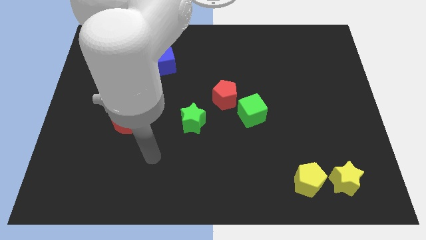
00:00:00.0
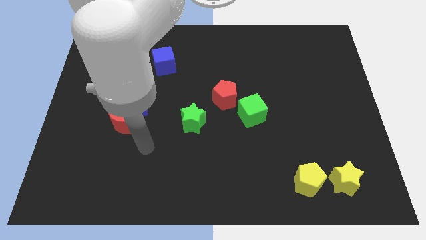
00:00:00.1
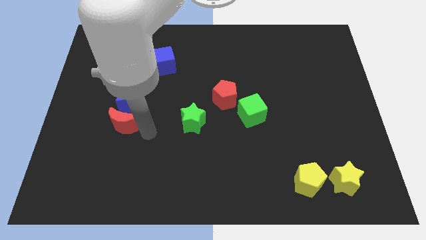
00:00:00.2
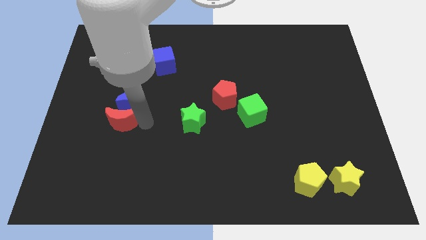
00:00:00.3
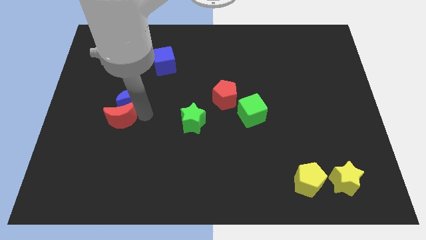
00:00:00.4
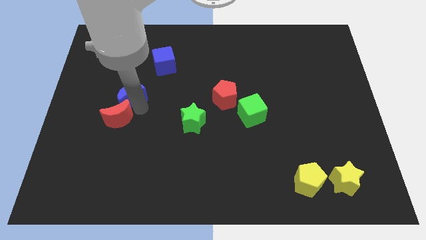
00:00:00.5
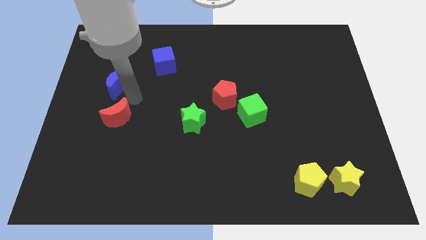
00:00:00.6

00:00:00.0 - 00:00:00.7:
separate the red moon from the blue moon

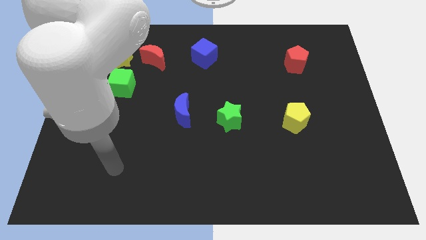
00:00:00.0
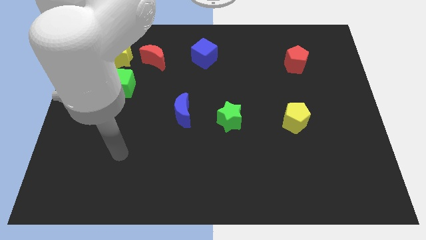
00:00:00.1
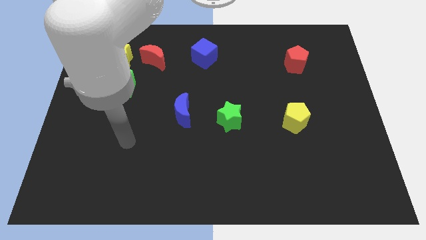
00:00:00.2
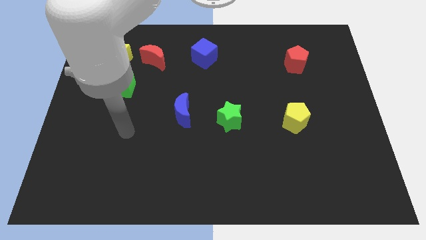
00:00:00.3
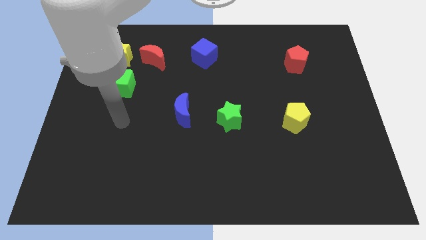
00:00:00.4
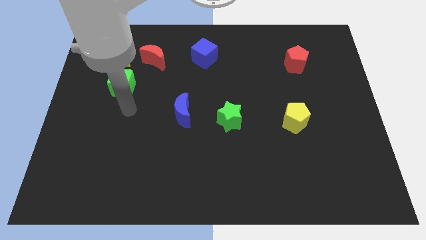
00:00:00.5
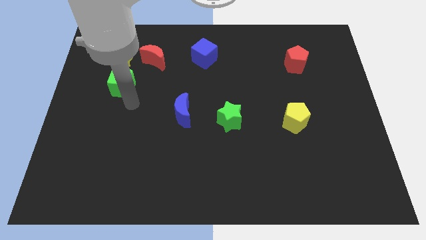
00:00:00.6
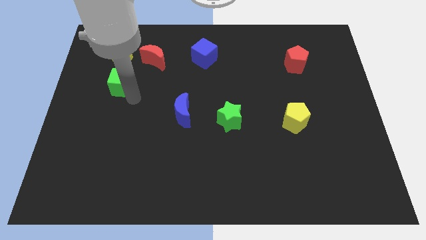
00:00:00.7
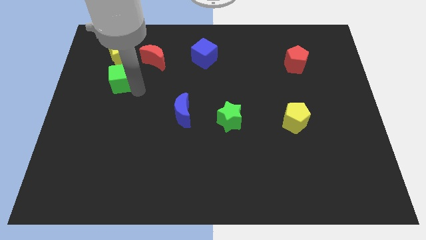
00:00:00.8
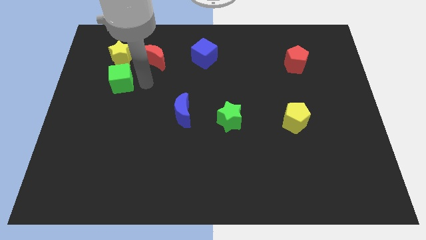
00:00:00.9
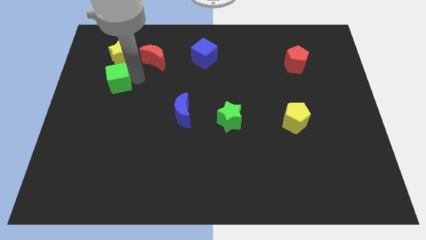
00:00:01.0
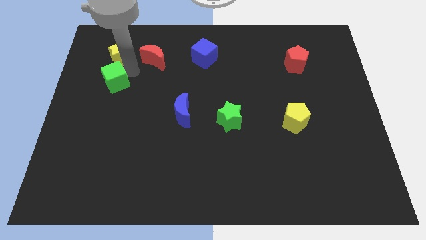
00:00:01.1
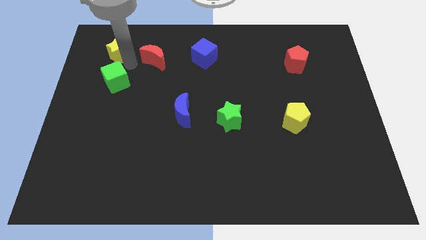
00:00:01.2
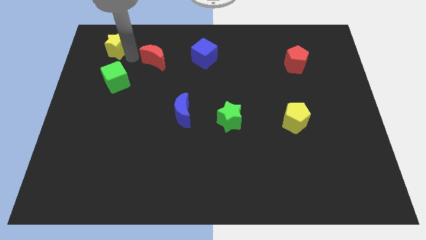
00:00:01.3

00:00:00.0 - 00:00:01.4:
move the red moon away from the yellow star

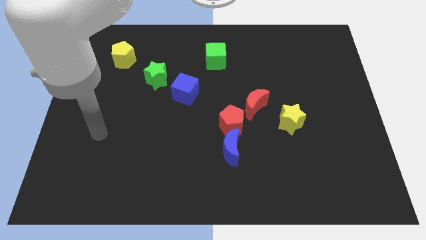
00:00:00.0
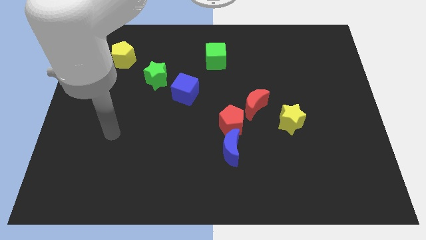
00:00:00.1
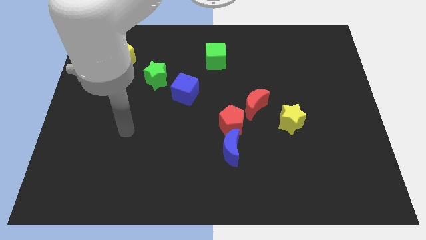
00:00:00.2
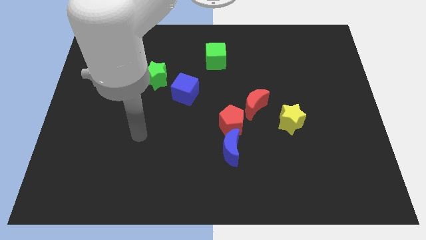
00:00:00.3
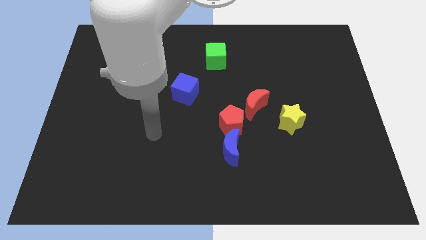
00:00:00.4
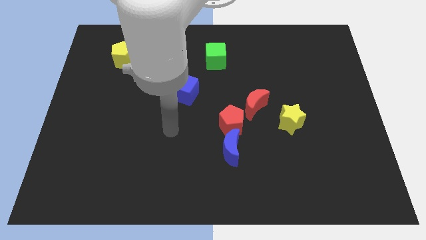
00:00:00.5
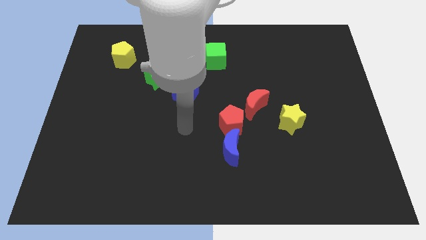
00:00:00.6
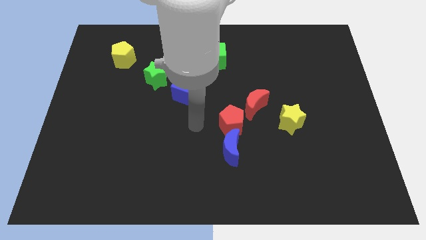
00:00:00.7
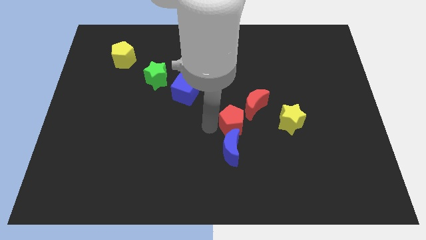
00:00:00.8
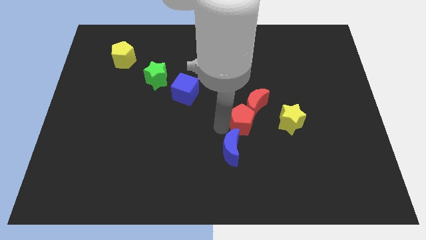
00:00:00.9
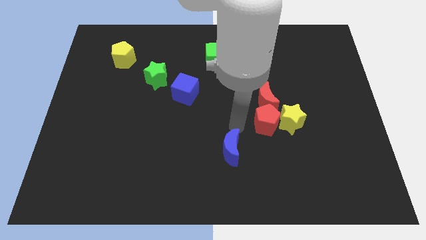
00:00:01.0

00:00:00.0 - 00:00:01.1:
move the blue moon away from the red pentagon

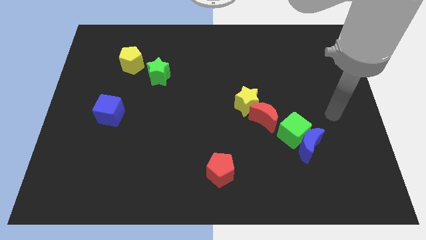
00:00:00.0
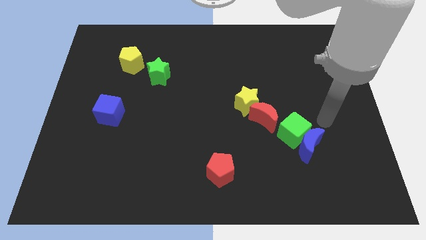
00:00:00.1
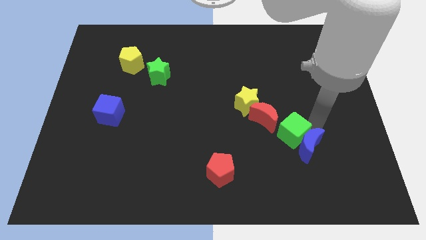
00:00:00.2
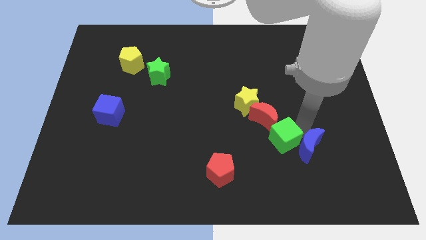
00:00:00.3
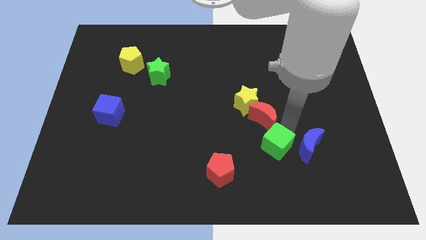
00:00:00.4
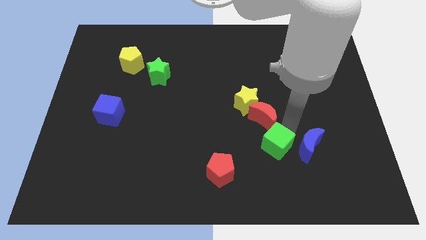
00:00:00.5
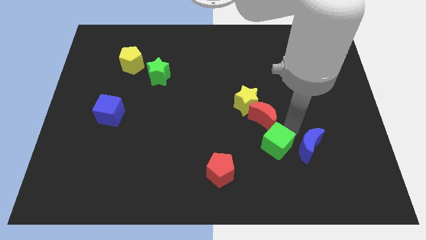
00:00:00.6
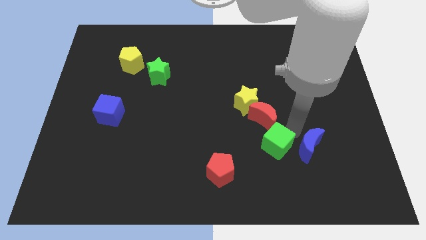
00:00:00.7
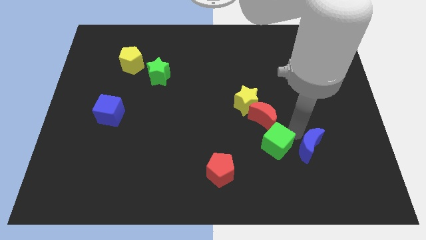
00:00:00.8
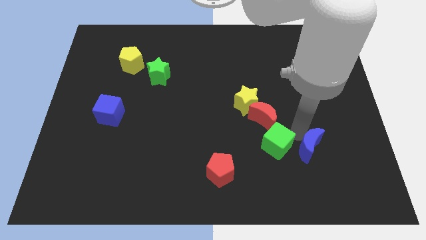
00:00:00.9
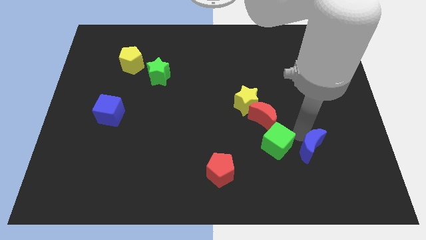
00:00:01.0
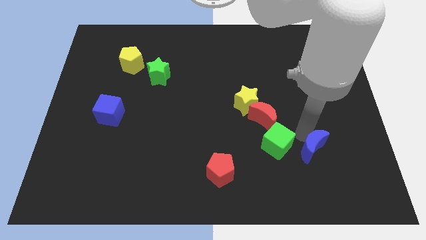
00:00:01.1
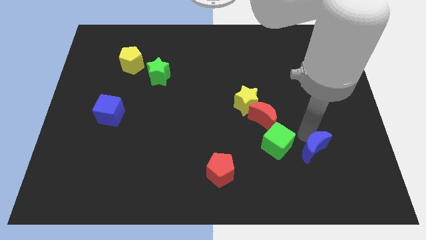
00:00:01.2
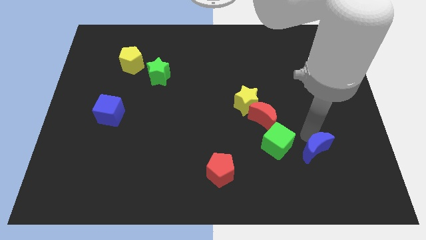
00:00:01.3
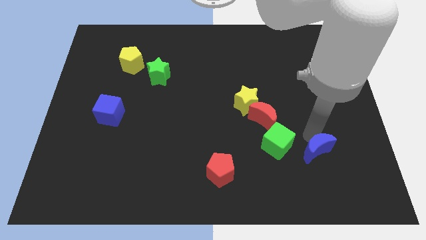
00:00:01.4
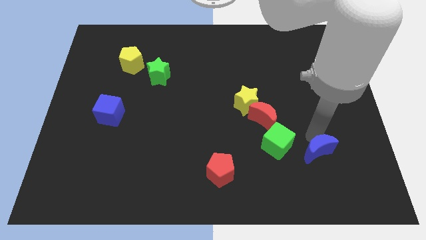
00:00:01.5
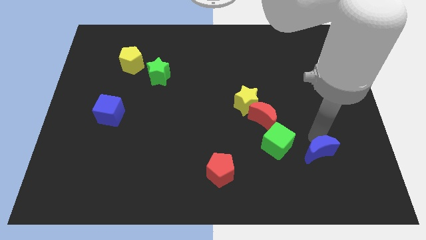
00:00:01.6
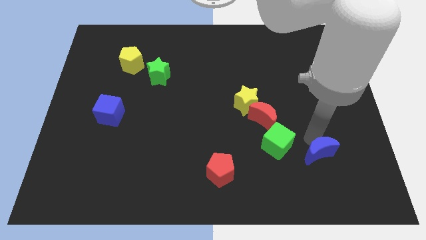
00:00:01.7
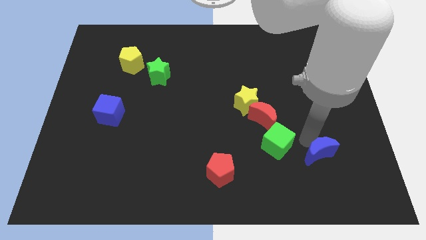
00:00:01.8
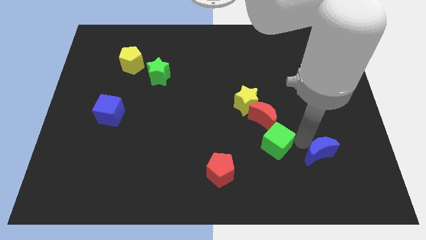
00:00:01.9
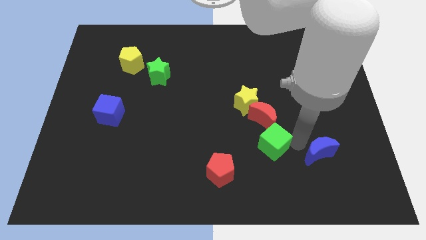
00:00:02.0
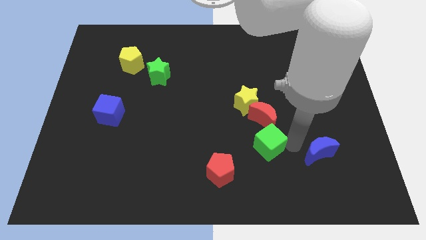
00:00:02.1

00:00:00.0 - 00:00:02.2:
move the blue moon away from the green cube

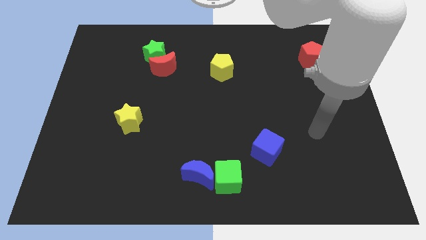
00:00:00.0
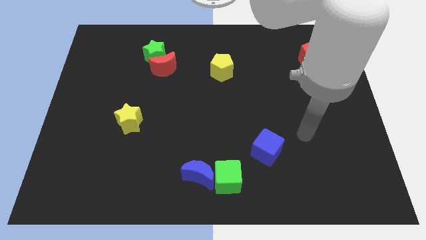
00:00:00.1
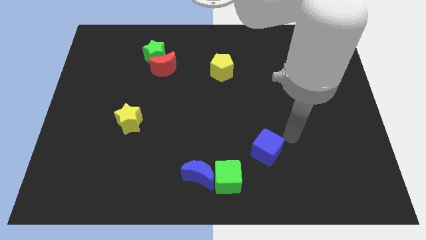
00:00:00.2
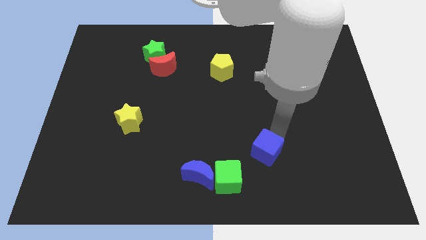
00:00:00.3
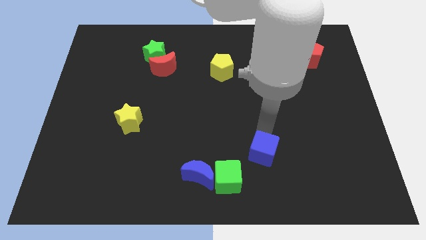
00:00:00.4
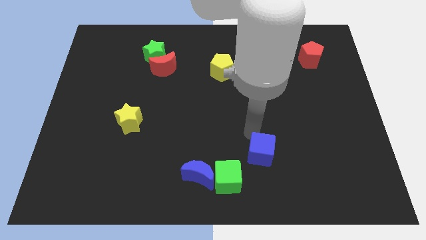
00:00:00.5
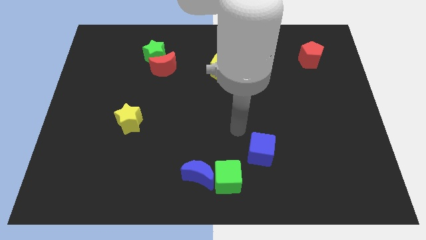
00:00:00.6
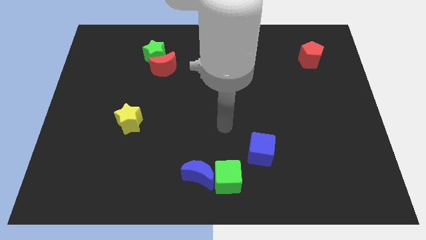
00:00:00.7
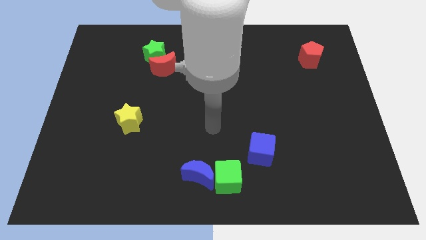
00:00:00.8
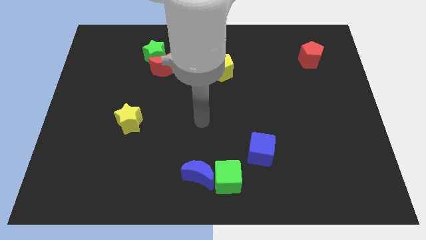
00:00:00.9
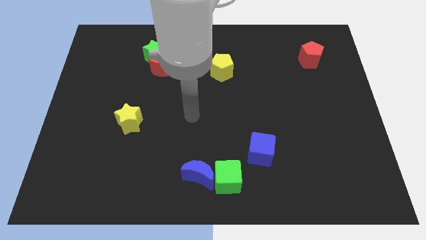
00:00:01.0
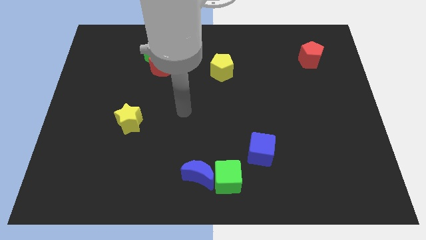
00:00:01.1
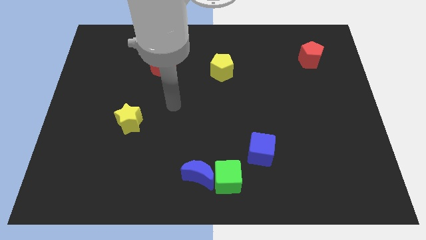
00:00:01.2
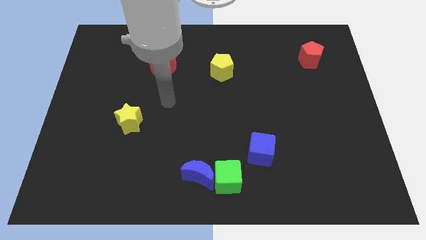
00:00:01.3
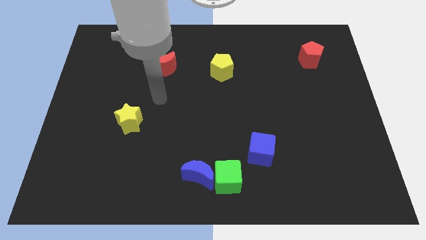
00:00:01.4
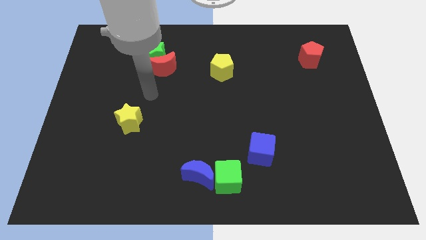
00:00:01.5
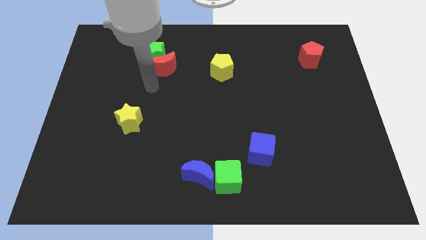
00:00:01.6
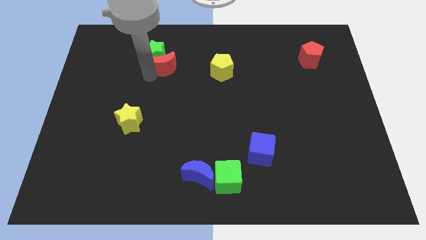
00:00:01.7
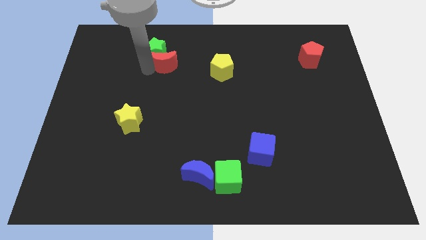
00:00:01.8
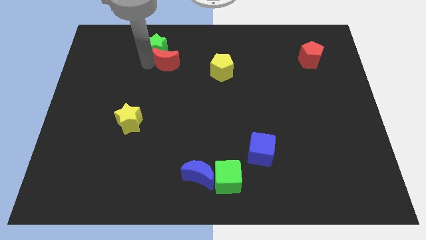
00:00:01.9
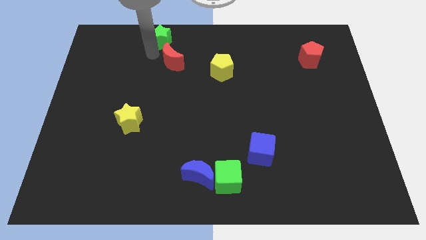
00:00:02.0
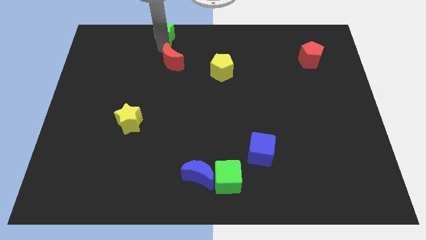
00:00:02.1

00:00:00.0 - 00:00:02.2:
separate the red moon from the green star

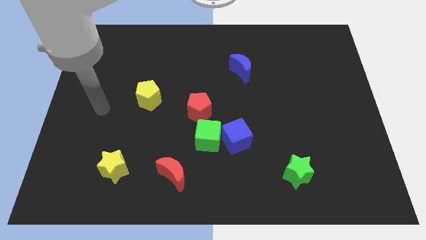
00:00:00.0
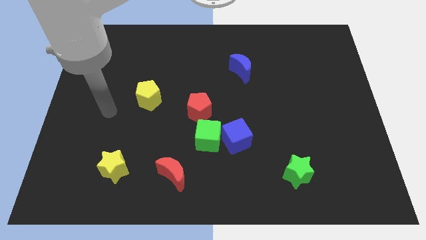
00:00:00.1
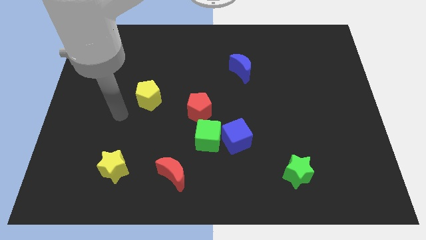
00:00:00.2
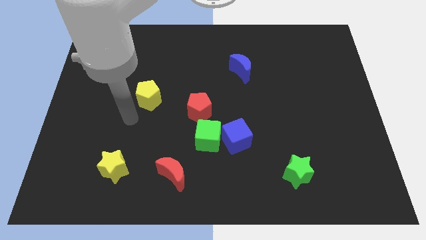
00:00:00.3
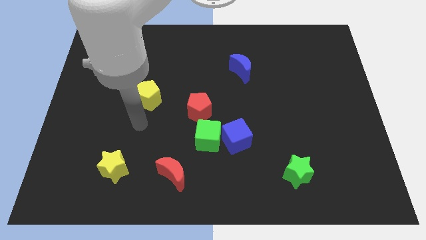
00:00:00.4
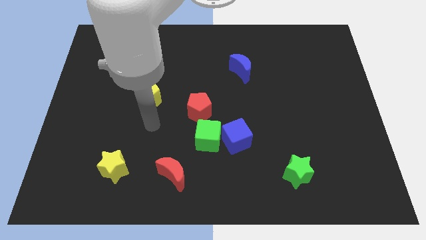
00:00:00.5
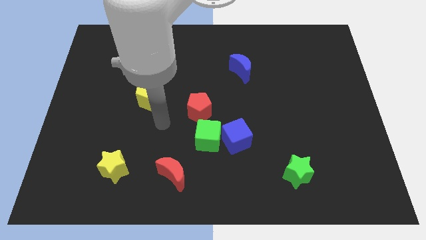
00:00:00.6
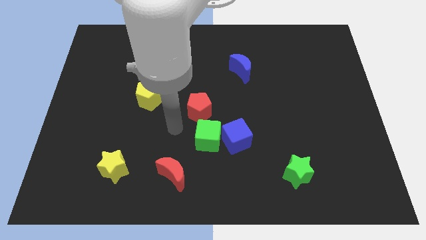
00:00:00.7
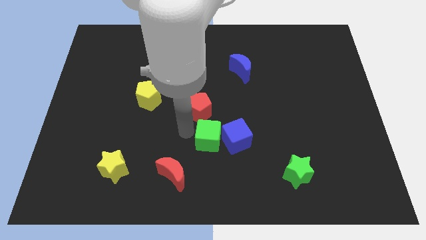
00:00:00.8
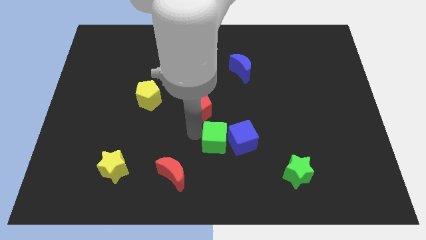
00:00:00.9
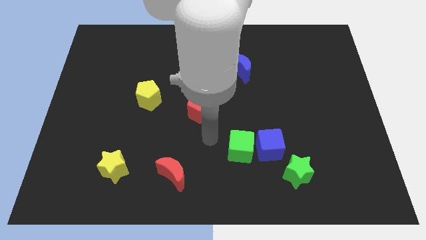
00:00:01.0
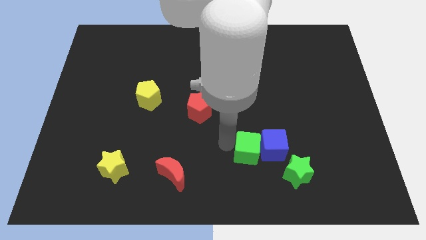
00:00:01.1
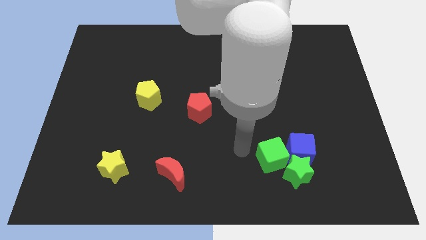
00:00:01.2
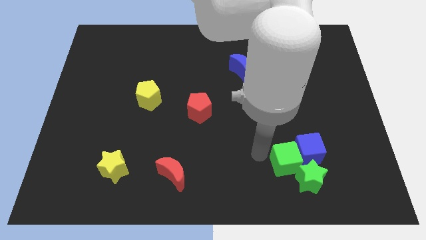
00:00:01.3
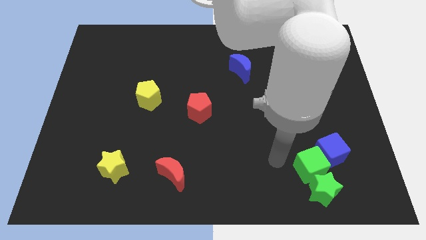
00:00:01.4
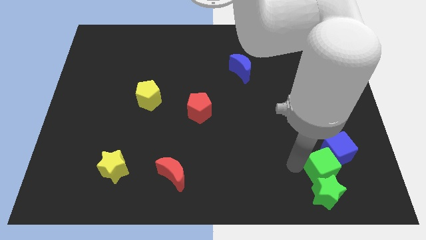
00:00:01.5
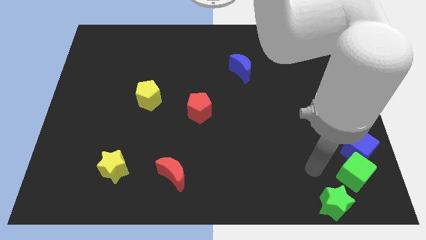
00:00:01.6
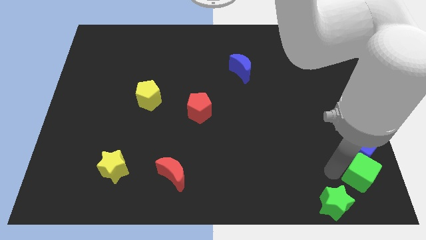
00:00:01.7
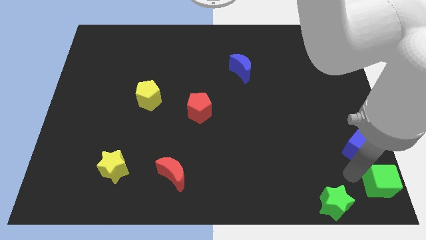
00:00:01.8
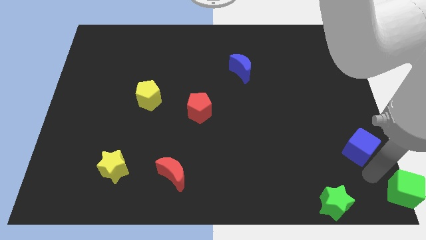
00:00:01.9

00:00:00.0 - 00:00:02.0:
move the blue cube away from the green cube
